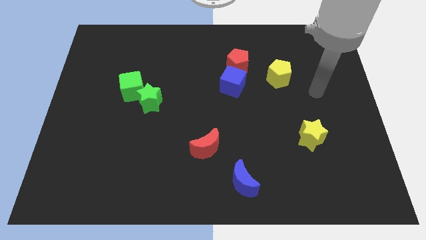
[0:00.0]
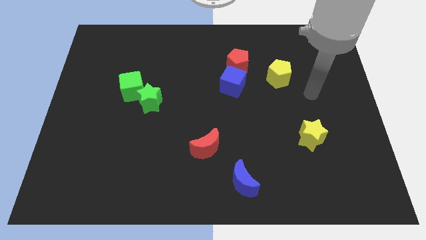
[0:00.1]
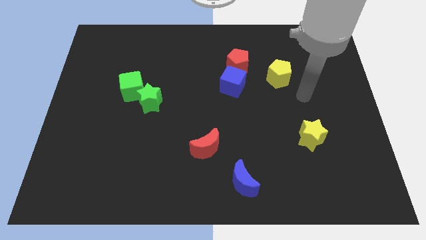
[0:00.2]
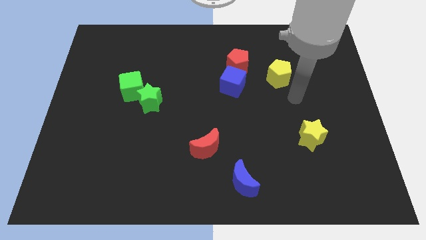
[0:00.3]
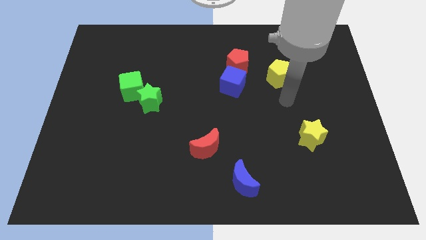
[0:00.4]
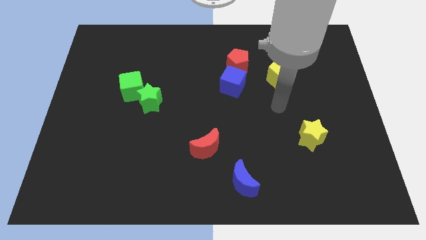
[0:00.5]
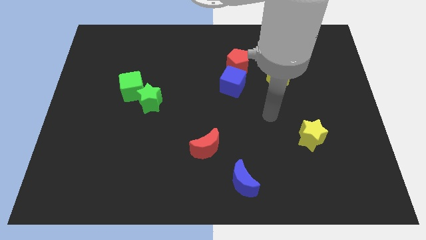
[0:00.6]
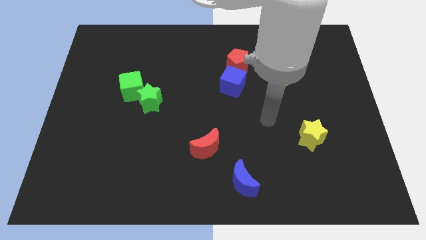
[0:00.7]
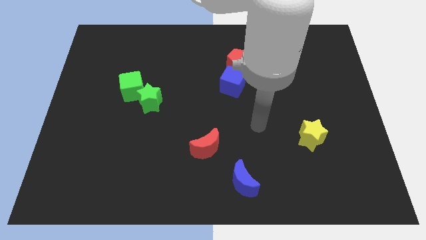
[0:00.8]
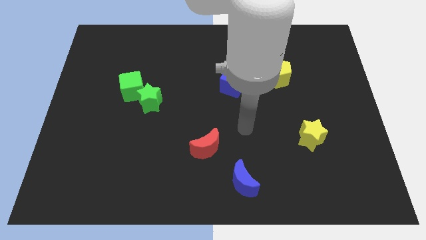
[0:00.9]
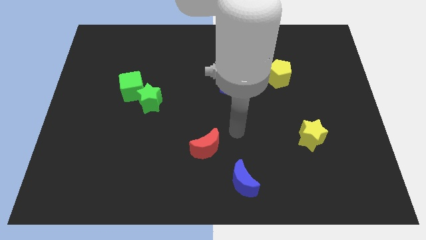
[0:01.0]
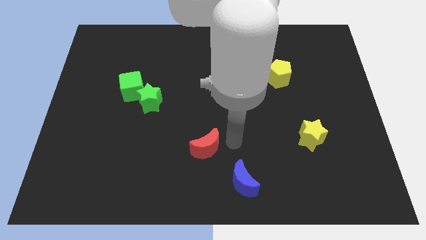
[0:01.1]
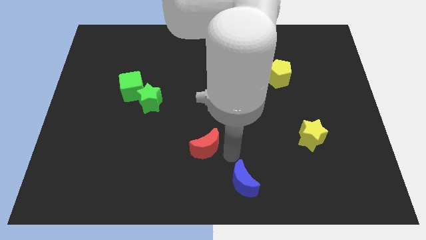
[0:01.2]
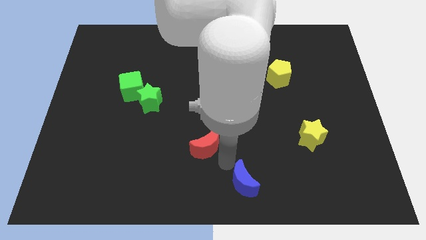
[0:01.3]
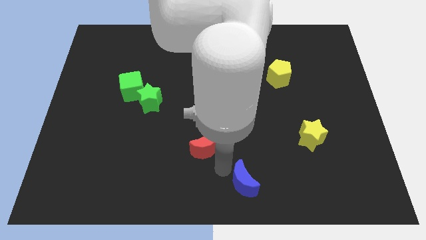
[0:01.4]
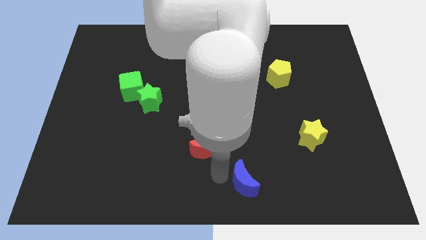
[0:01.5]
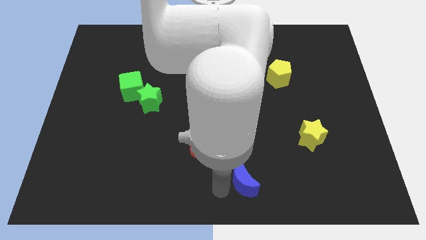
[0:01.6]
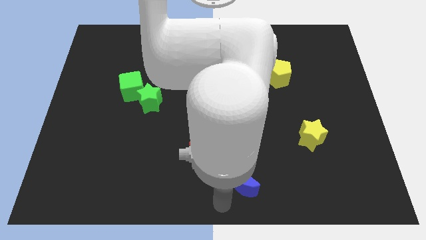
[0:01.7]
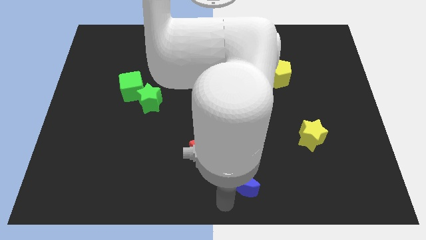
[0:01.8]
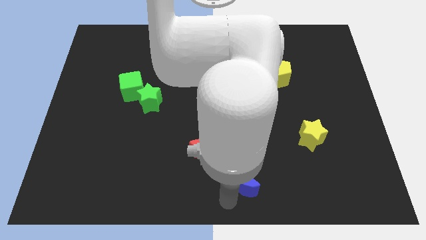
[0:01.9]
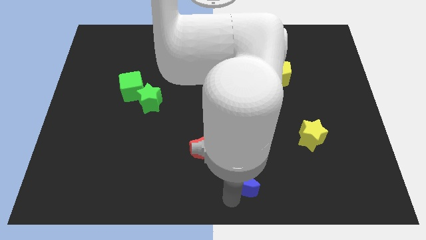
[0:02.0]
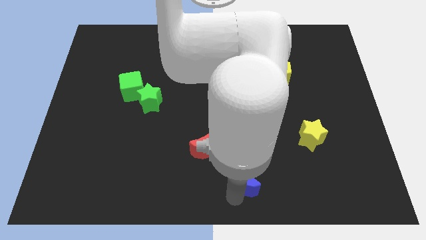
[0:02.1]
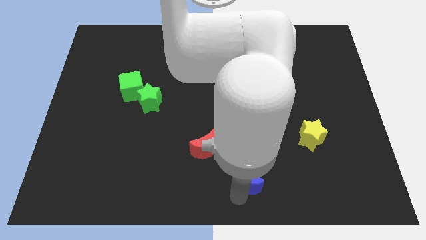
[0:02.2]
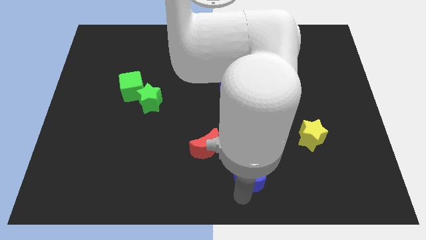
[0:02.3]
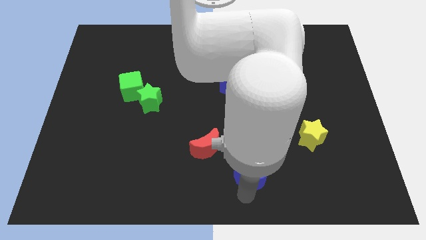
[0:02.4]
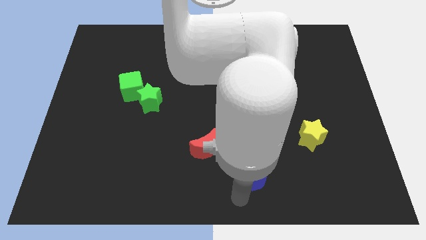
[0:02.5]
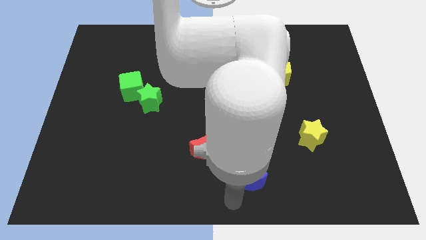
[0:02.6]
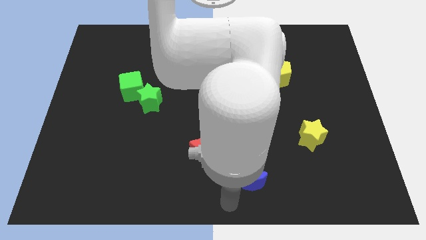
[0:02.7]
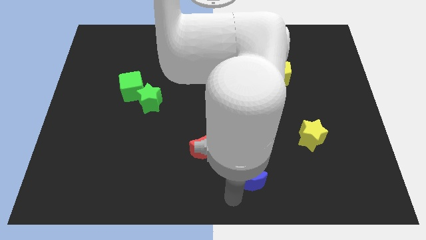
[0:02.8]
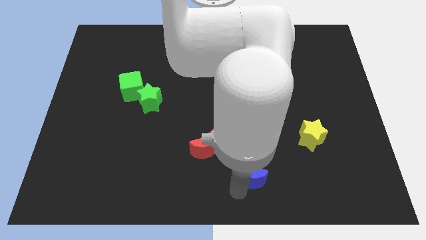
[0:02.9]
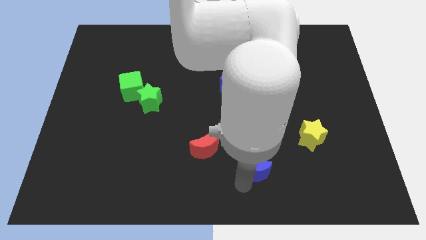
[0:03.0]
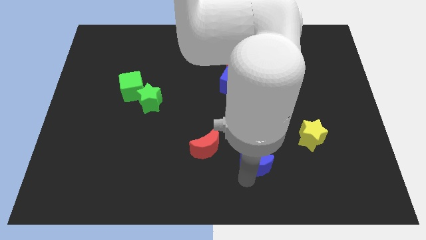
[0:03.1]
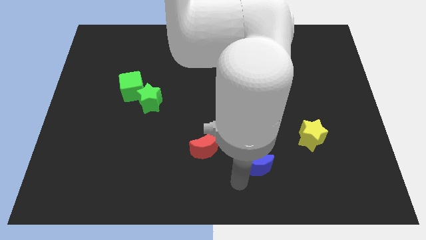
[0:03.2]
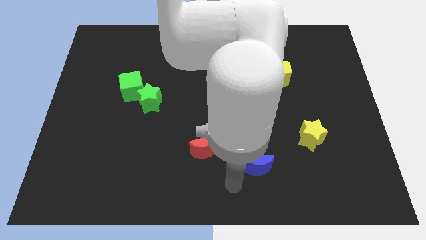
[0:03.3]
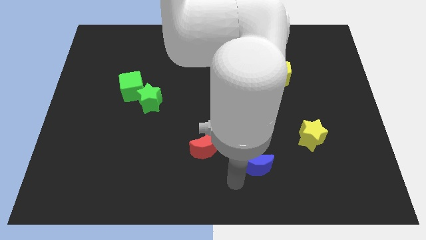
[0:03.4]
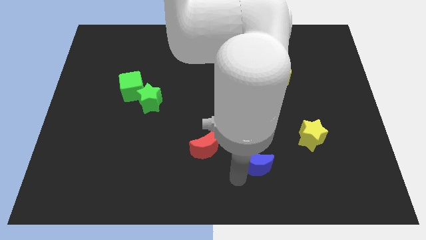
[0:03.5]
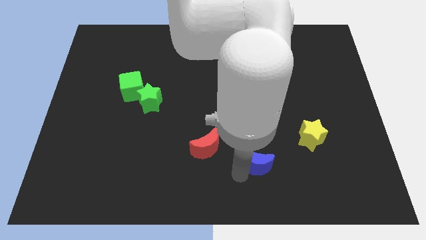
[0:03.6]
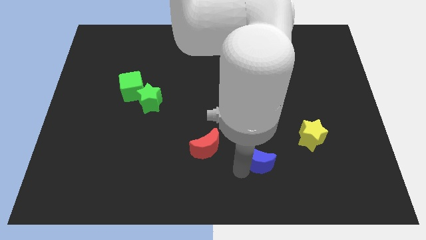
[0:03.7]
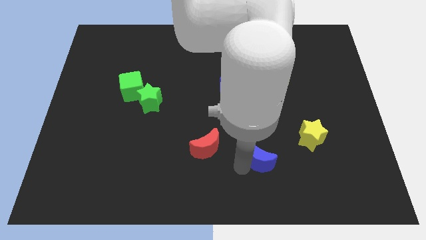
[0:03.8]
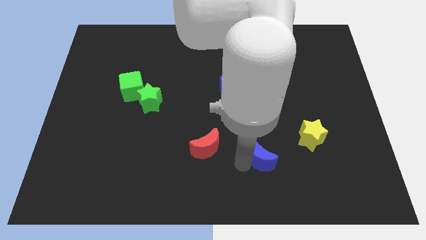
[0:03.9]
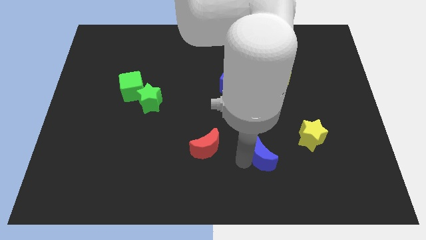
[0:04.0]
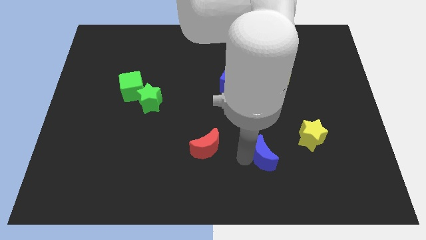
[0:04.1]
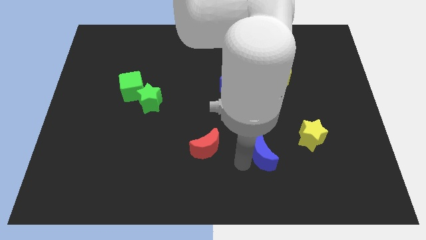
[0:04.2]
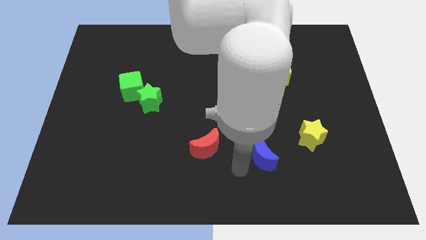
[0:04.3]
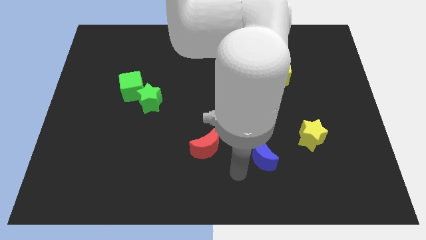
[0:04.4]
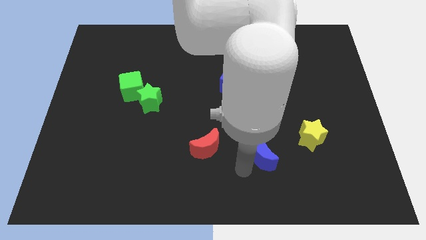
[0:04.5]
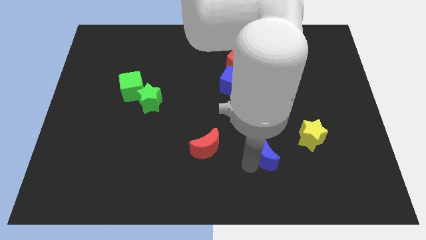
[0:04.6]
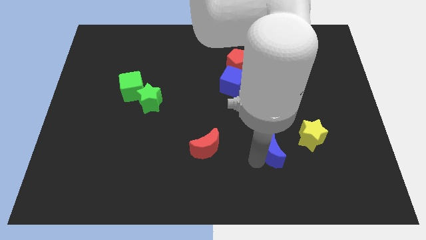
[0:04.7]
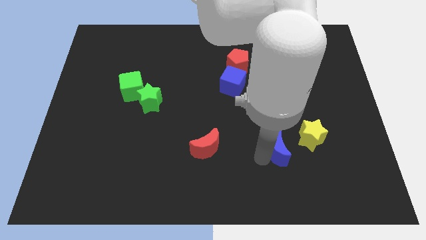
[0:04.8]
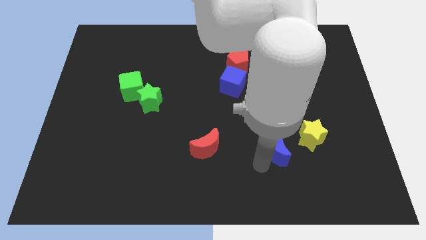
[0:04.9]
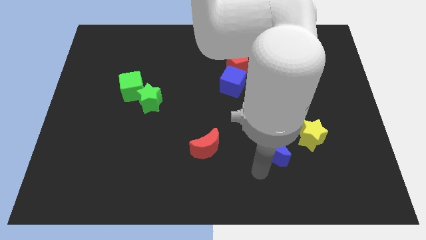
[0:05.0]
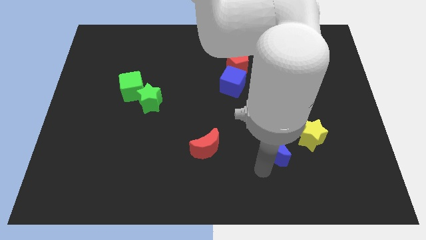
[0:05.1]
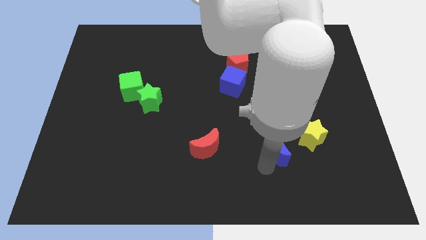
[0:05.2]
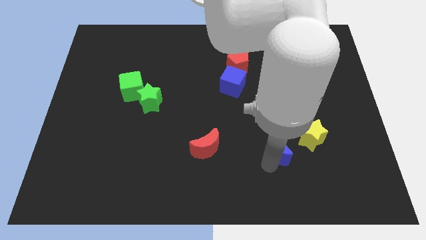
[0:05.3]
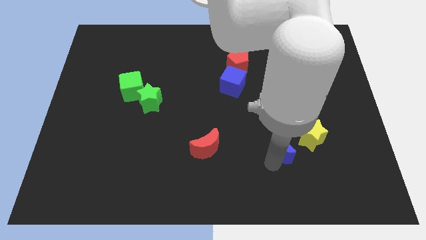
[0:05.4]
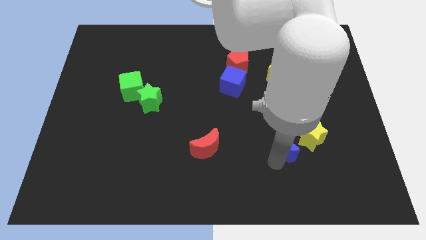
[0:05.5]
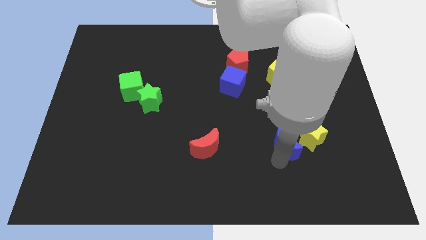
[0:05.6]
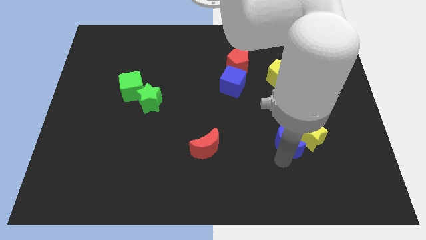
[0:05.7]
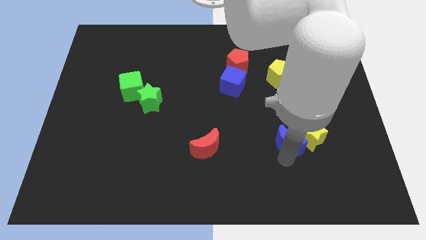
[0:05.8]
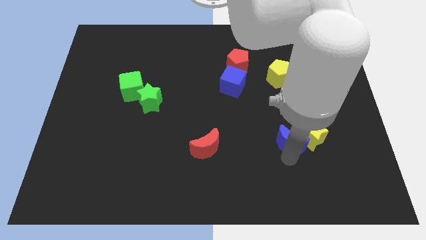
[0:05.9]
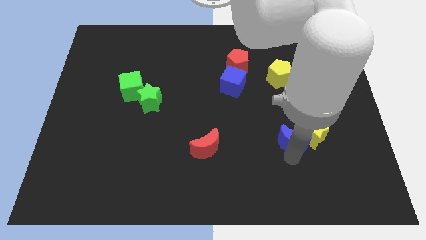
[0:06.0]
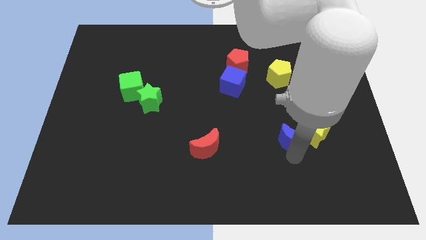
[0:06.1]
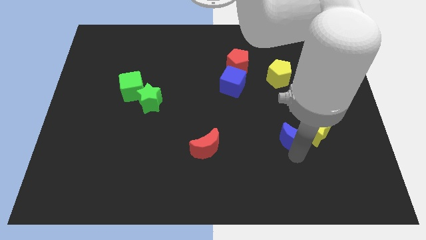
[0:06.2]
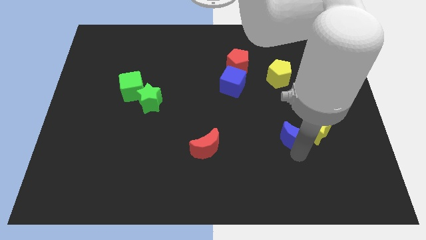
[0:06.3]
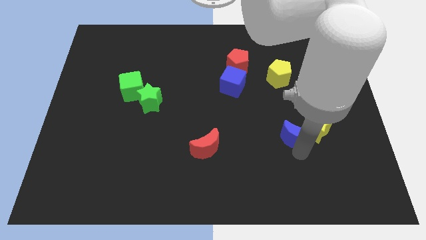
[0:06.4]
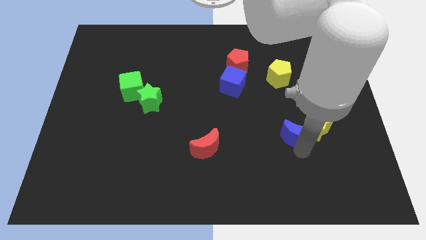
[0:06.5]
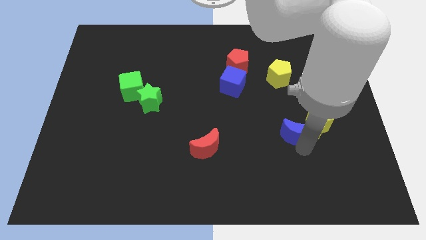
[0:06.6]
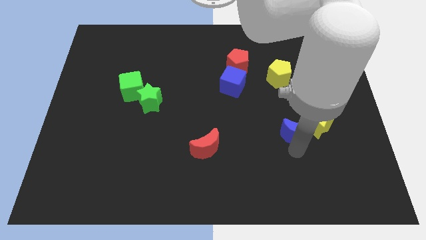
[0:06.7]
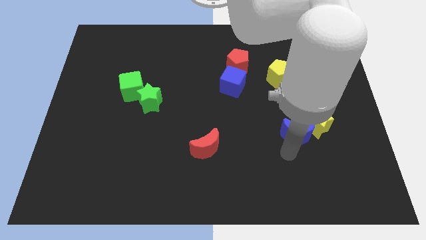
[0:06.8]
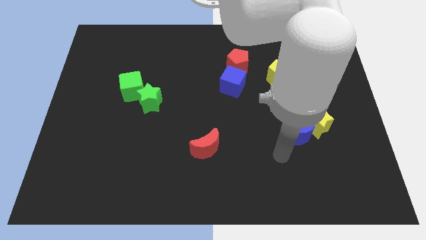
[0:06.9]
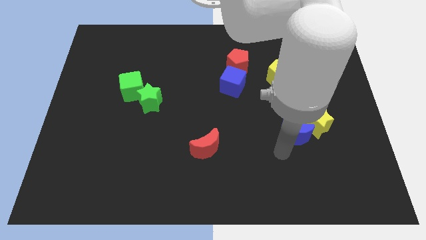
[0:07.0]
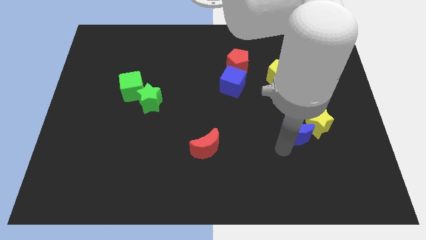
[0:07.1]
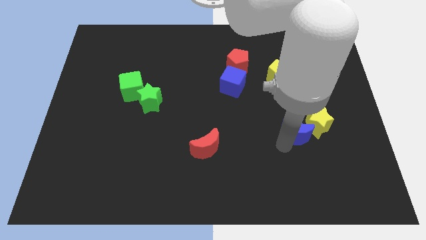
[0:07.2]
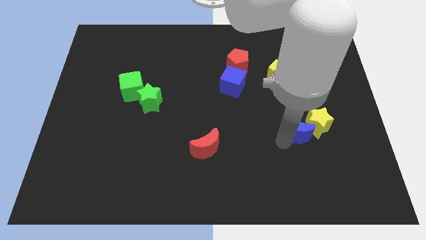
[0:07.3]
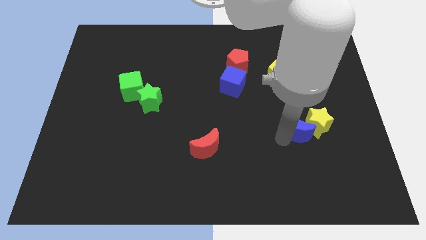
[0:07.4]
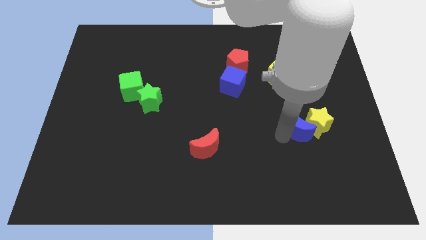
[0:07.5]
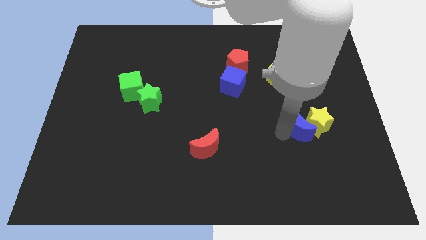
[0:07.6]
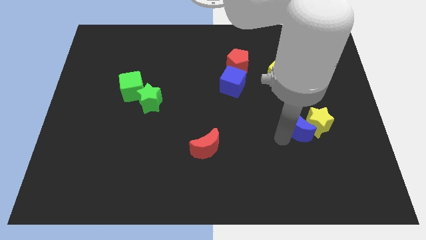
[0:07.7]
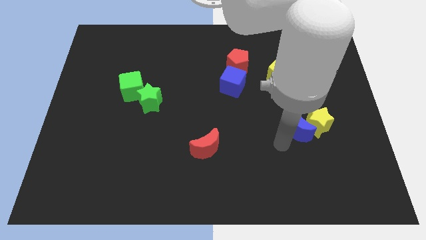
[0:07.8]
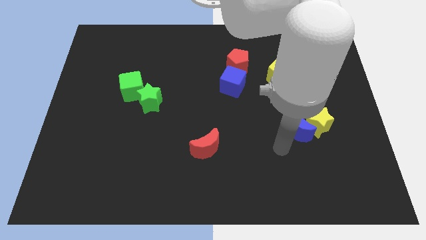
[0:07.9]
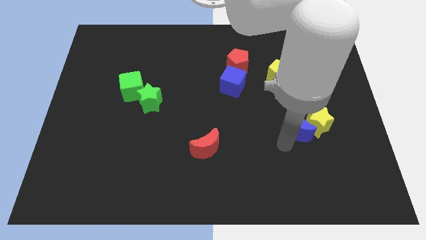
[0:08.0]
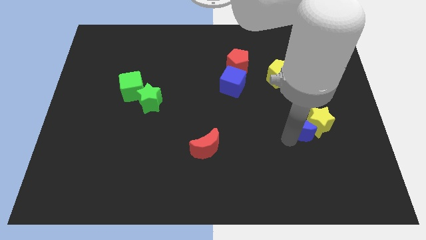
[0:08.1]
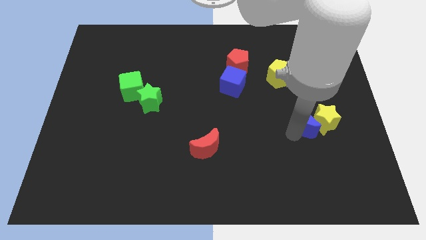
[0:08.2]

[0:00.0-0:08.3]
move the blue moon up and to the right

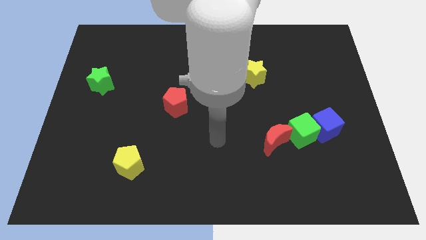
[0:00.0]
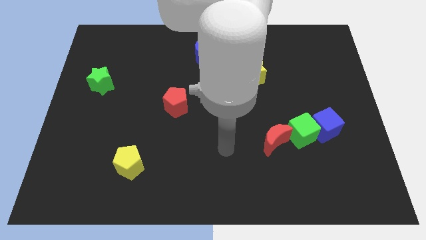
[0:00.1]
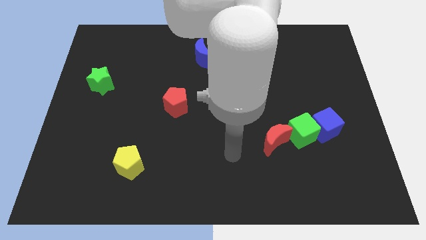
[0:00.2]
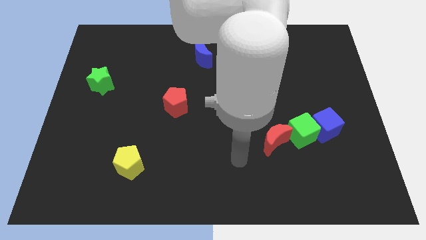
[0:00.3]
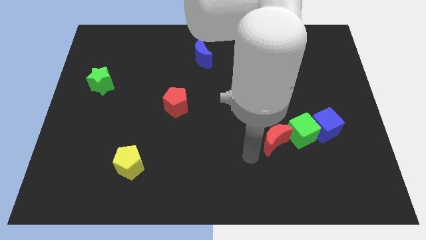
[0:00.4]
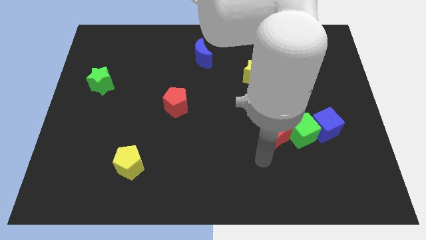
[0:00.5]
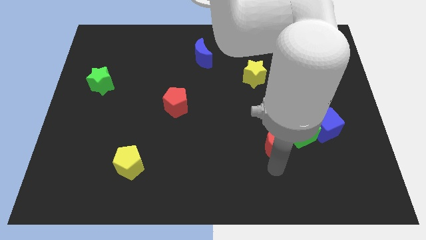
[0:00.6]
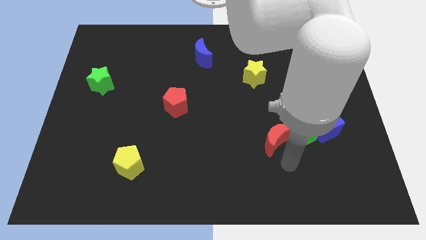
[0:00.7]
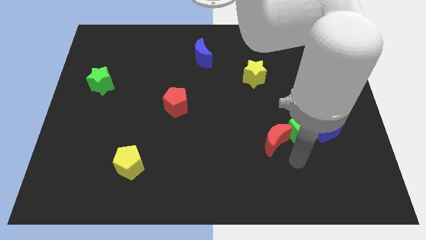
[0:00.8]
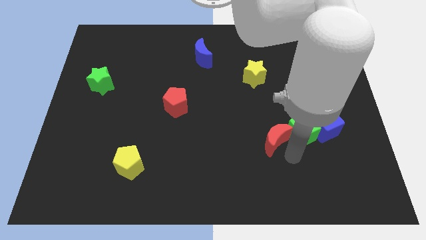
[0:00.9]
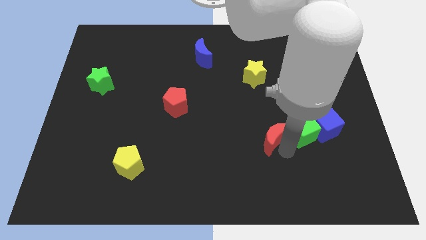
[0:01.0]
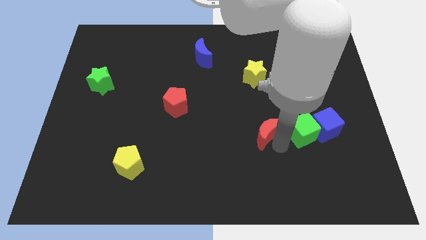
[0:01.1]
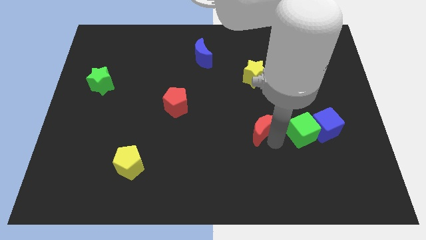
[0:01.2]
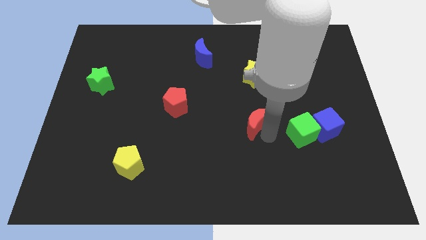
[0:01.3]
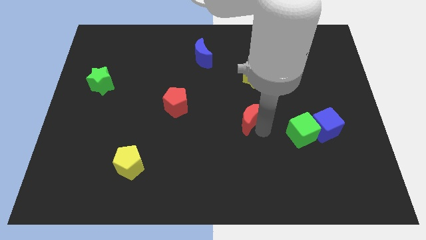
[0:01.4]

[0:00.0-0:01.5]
push the red moon upwards and left diagonally a little
